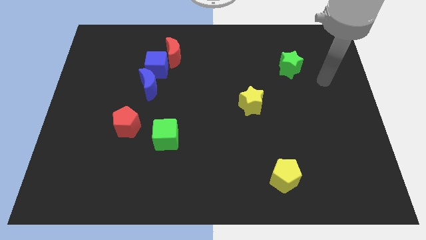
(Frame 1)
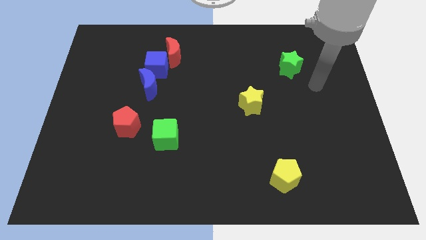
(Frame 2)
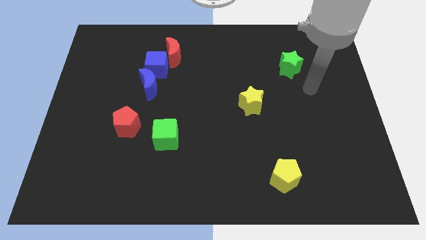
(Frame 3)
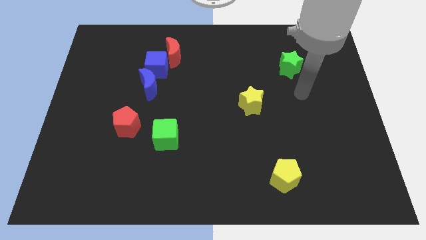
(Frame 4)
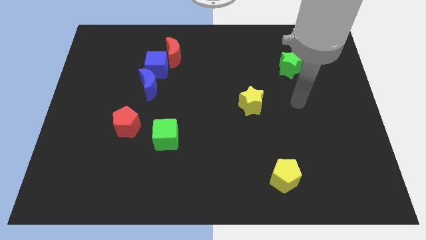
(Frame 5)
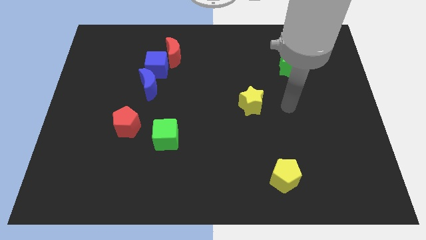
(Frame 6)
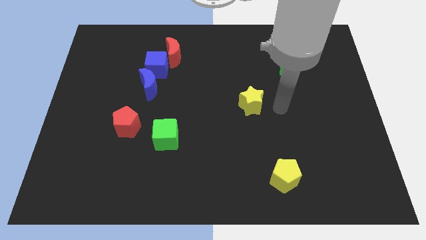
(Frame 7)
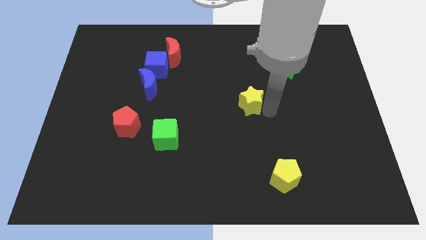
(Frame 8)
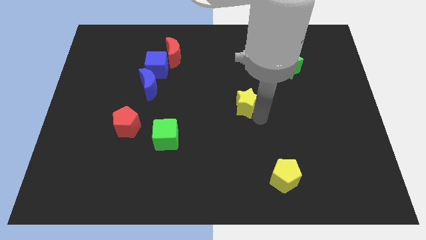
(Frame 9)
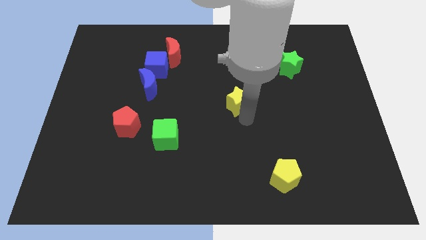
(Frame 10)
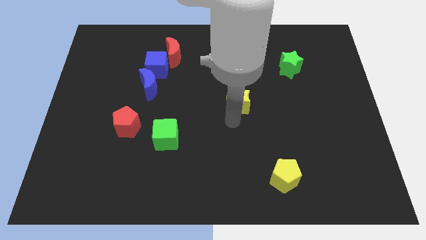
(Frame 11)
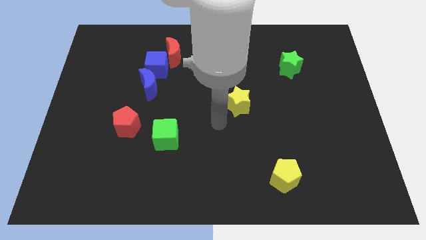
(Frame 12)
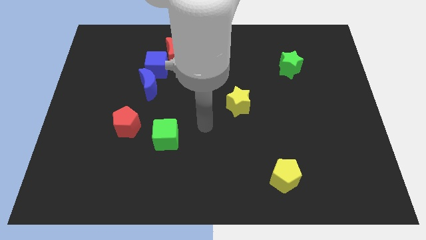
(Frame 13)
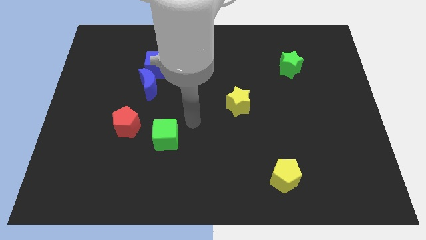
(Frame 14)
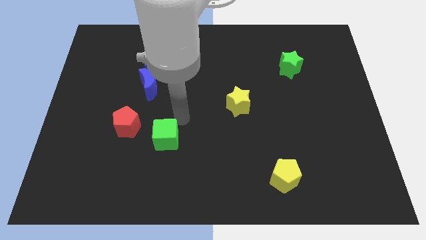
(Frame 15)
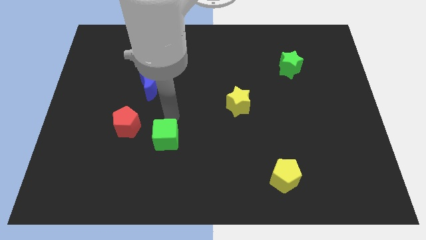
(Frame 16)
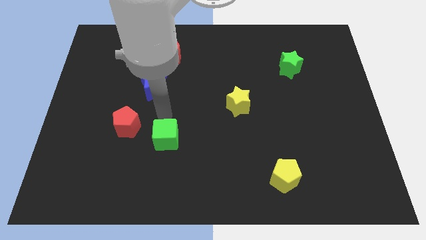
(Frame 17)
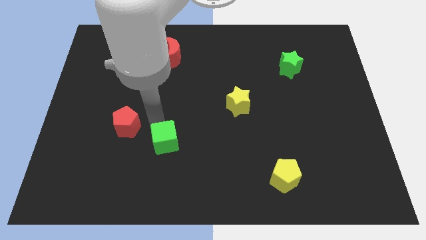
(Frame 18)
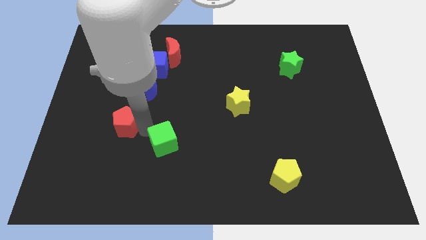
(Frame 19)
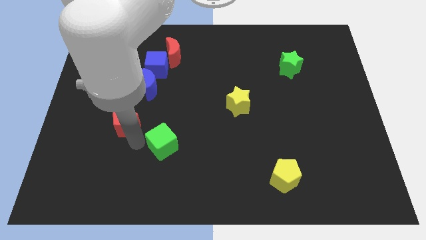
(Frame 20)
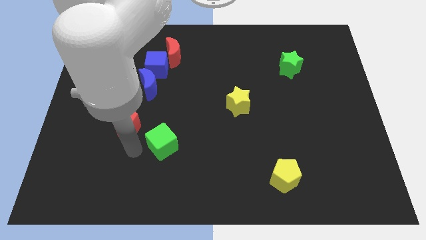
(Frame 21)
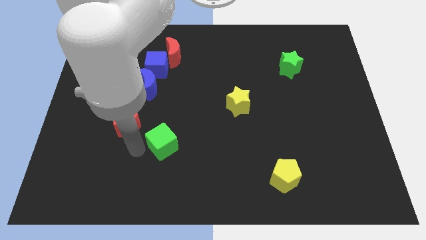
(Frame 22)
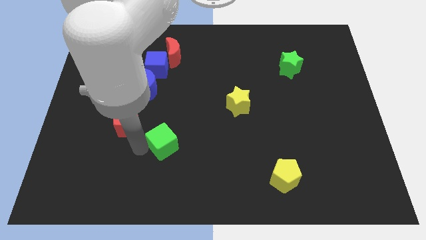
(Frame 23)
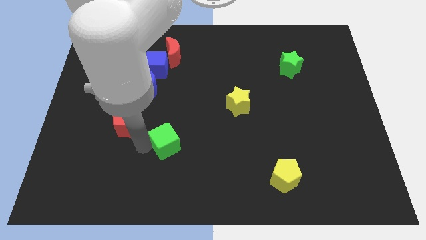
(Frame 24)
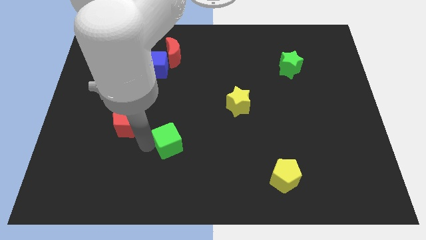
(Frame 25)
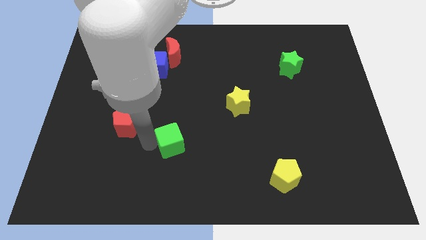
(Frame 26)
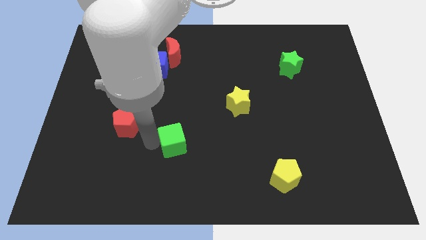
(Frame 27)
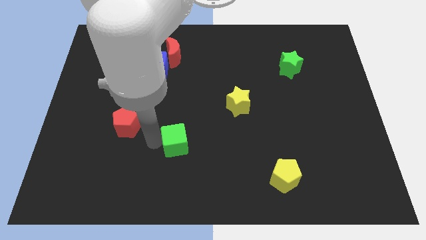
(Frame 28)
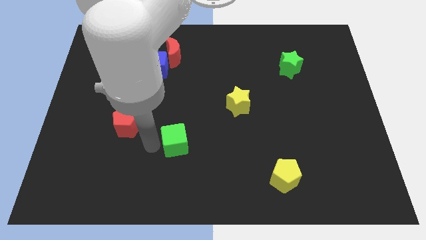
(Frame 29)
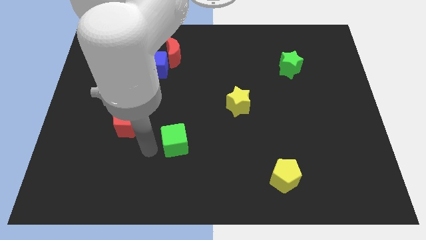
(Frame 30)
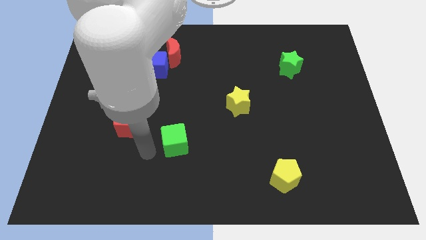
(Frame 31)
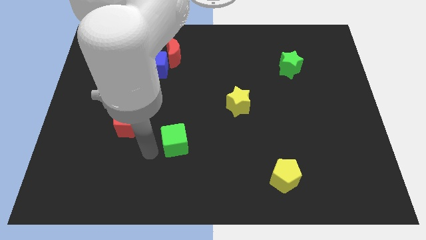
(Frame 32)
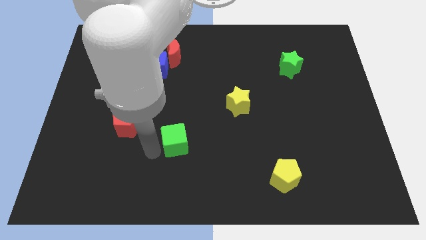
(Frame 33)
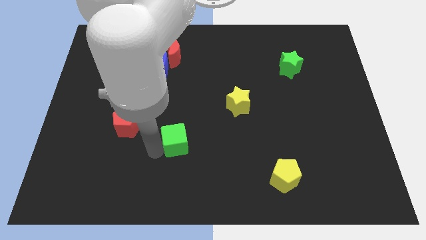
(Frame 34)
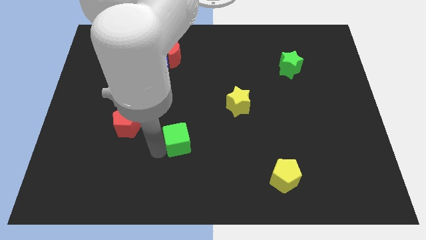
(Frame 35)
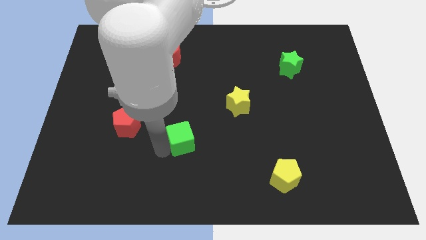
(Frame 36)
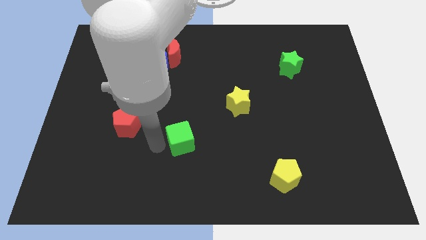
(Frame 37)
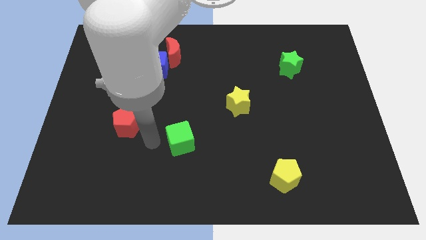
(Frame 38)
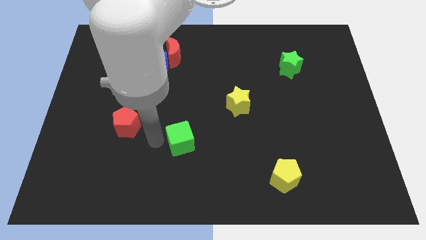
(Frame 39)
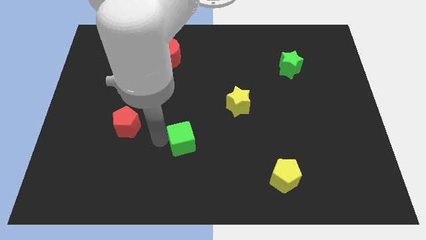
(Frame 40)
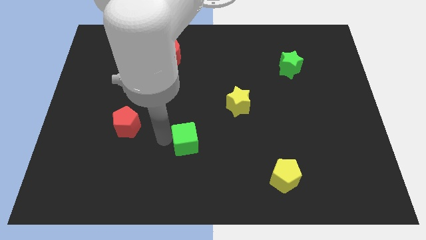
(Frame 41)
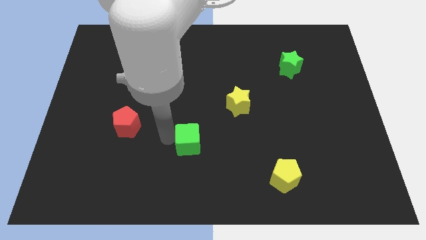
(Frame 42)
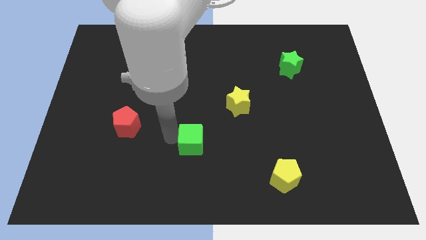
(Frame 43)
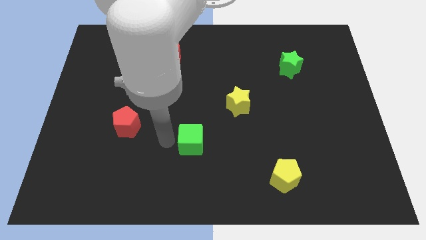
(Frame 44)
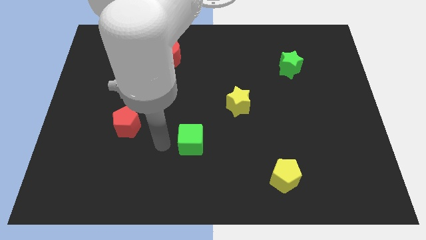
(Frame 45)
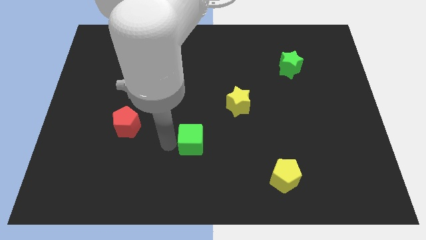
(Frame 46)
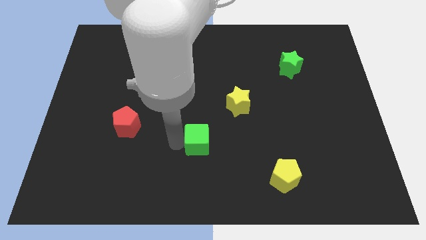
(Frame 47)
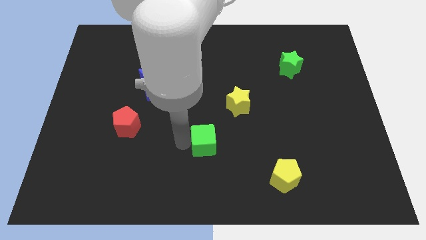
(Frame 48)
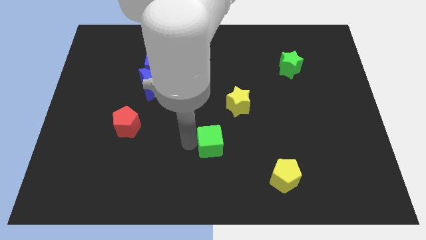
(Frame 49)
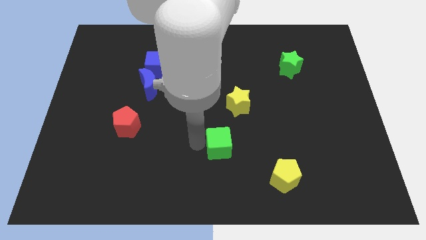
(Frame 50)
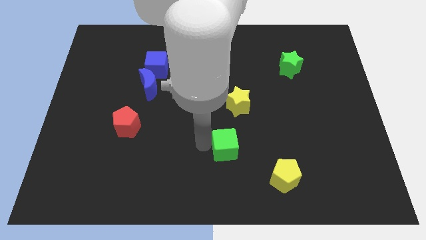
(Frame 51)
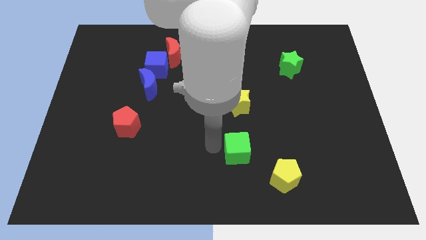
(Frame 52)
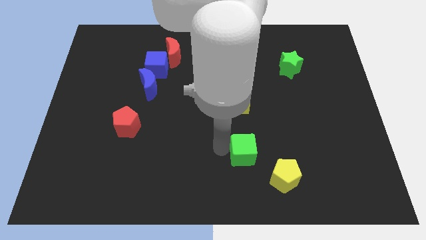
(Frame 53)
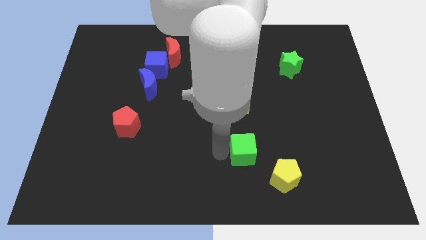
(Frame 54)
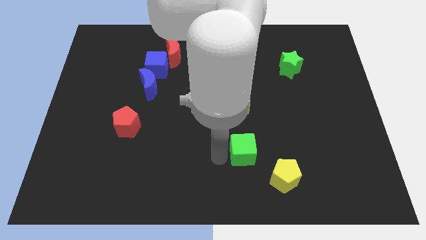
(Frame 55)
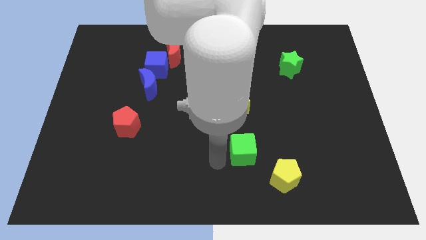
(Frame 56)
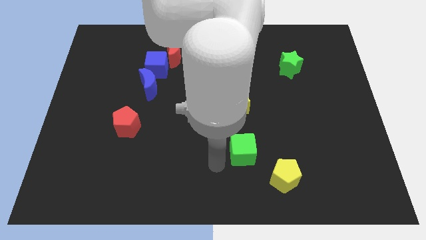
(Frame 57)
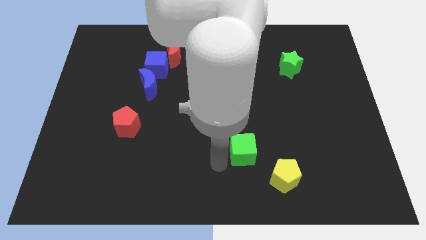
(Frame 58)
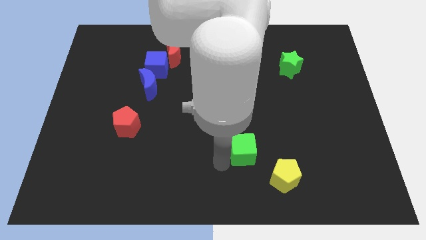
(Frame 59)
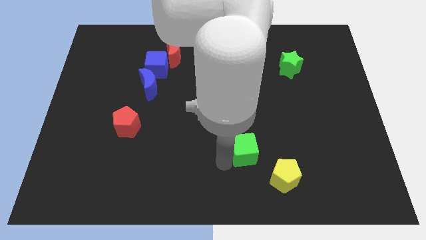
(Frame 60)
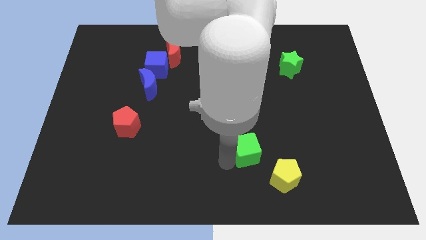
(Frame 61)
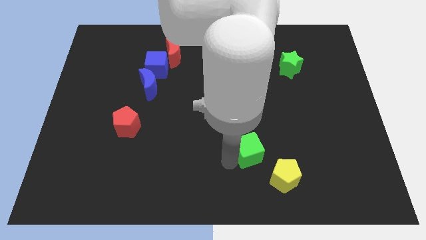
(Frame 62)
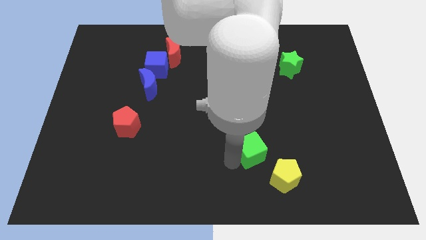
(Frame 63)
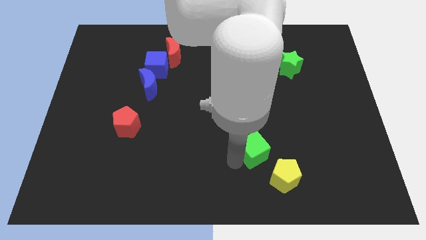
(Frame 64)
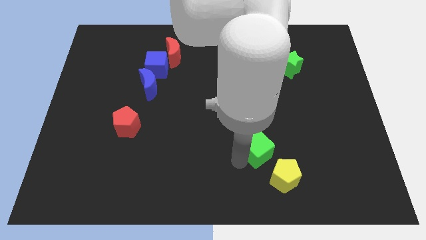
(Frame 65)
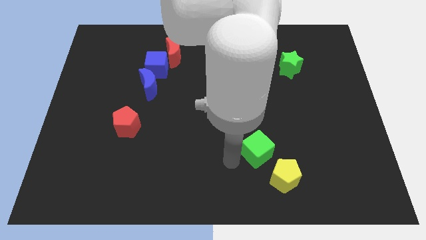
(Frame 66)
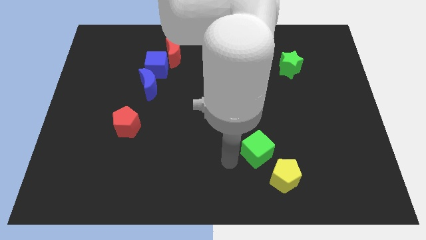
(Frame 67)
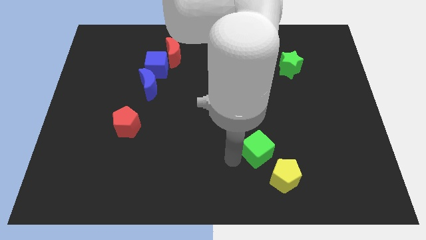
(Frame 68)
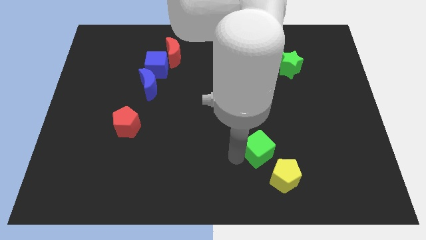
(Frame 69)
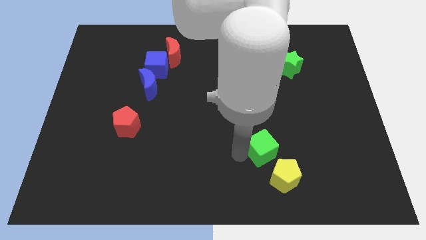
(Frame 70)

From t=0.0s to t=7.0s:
push the green cube right

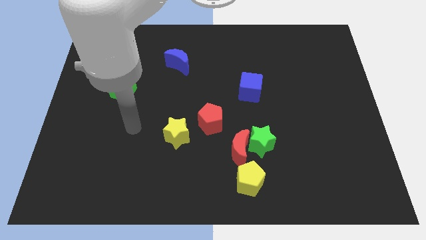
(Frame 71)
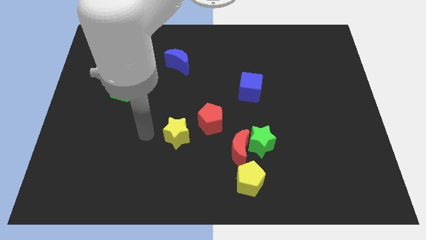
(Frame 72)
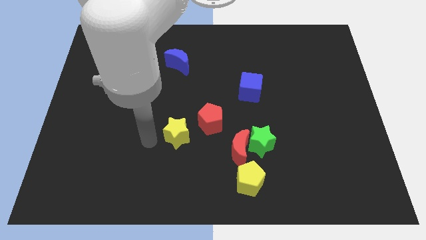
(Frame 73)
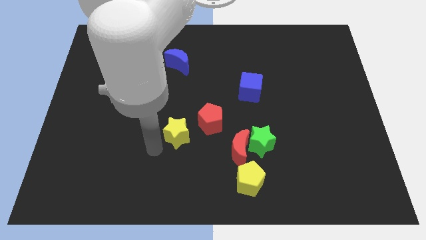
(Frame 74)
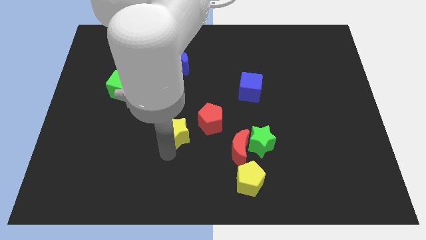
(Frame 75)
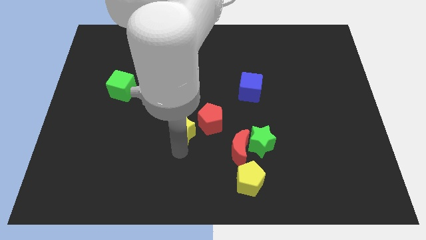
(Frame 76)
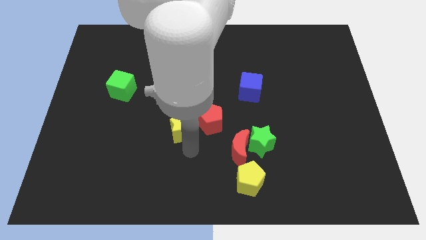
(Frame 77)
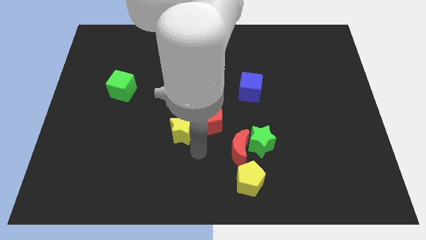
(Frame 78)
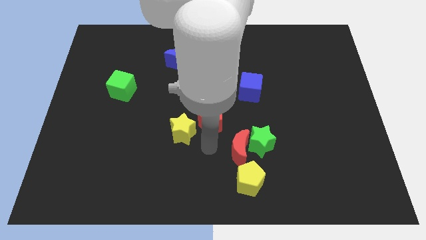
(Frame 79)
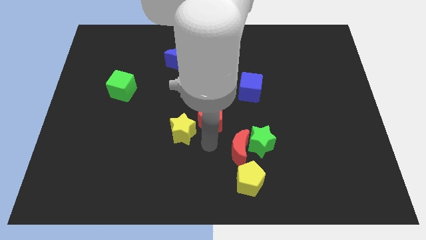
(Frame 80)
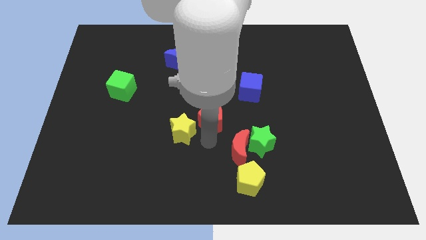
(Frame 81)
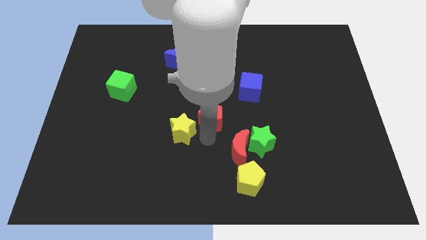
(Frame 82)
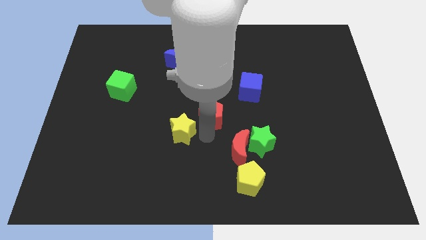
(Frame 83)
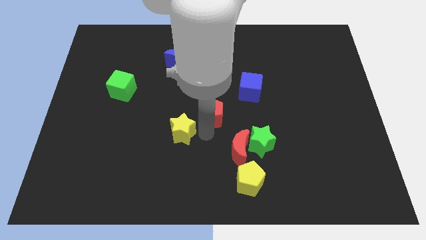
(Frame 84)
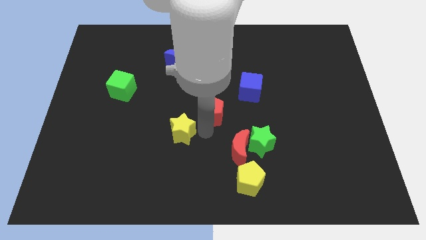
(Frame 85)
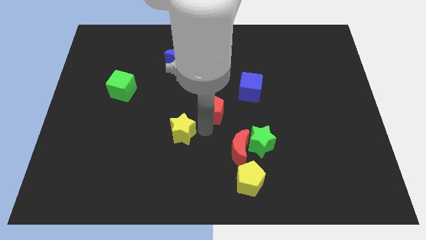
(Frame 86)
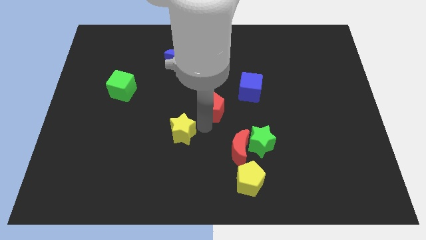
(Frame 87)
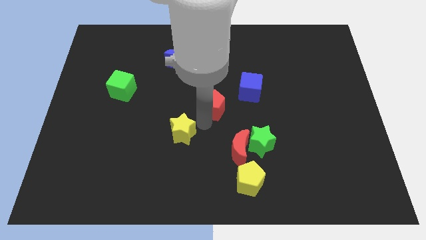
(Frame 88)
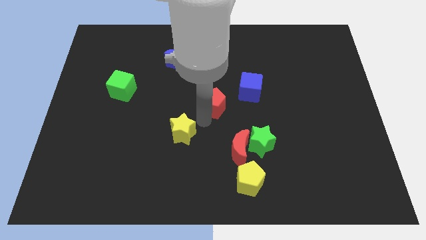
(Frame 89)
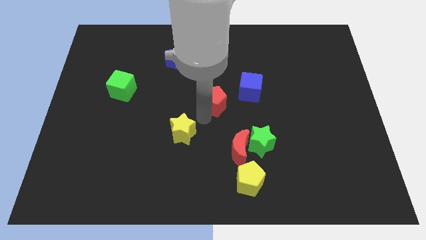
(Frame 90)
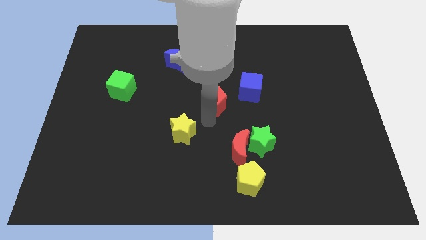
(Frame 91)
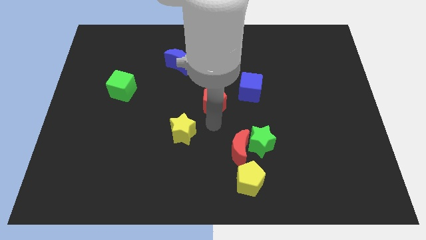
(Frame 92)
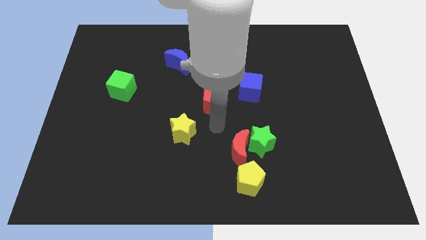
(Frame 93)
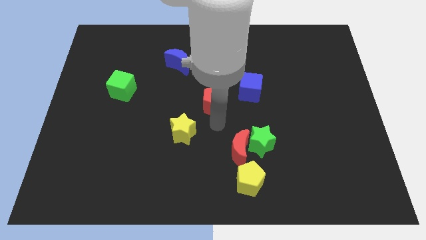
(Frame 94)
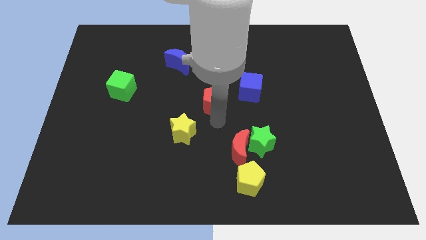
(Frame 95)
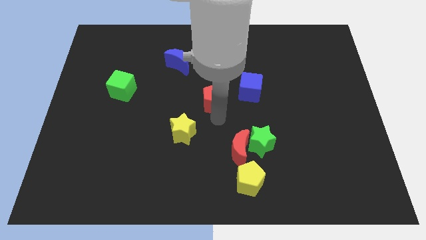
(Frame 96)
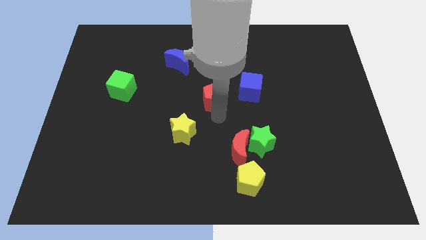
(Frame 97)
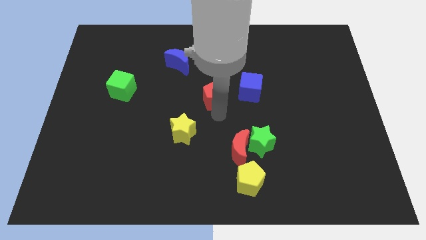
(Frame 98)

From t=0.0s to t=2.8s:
slide the red pentagon a little up
